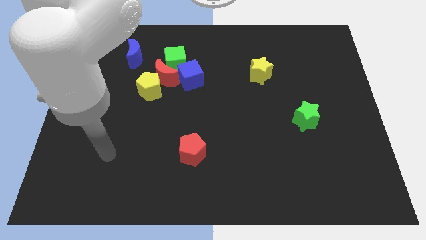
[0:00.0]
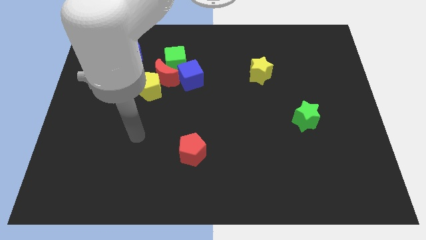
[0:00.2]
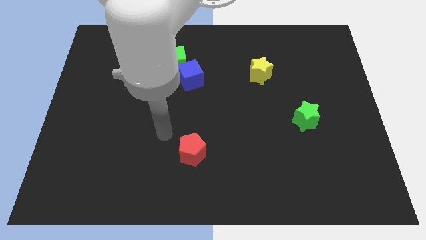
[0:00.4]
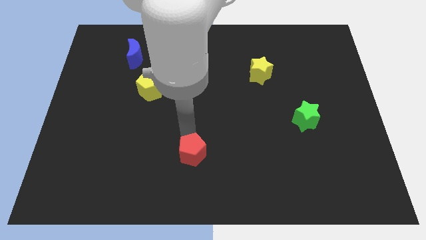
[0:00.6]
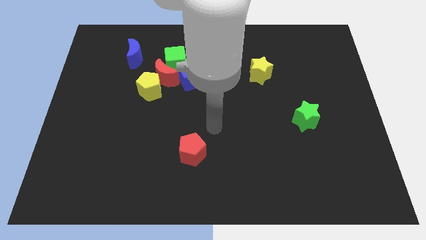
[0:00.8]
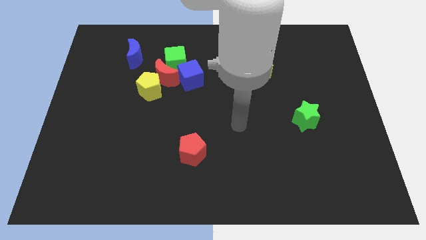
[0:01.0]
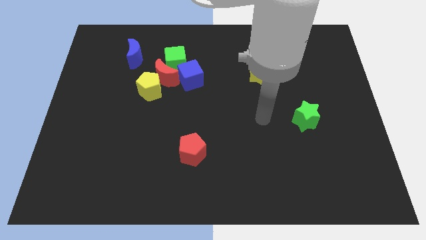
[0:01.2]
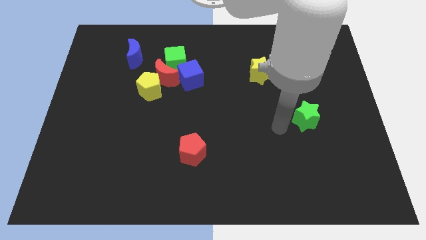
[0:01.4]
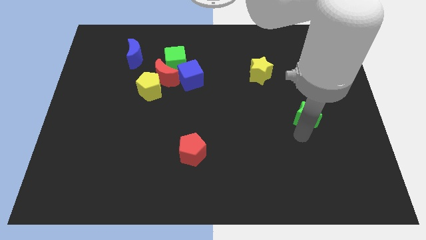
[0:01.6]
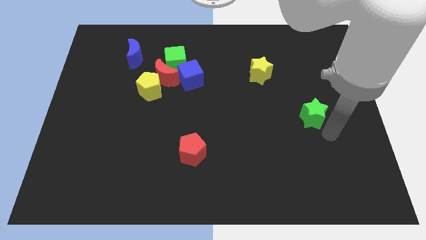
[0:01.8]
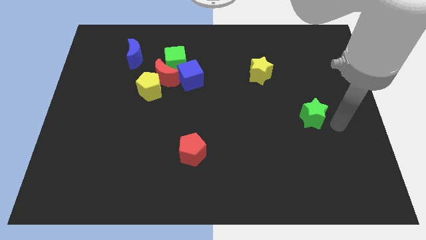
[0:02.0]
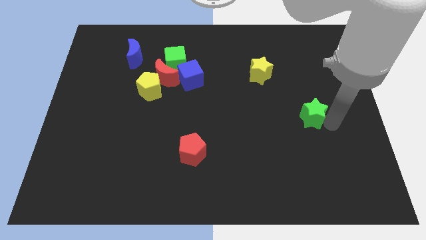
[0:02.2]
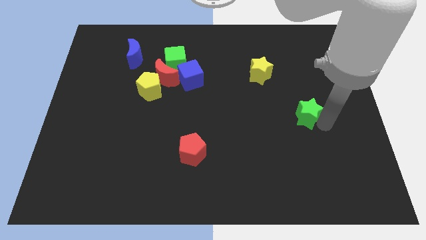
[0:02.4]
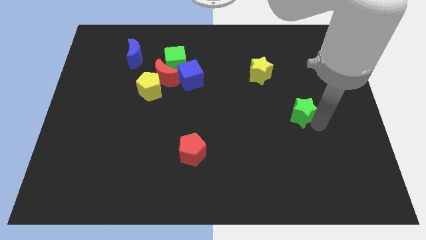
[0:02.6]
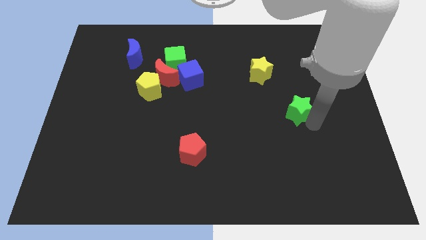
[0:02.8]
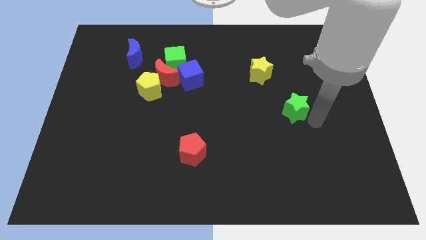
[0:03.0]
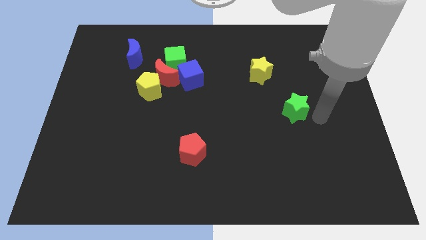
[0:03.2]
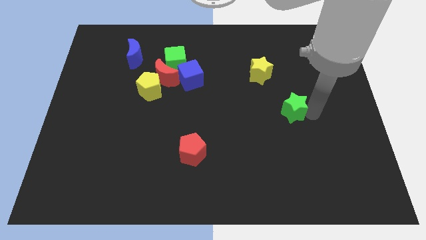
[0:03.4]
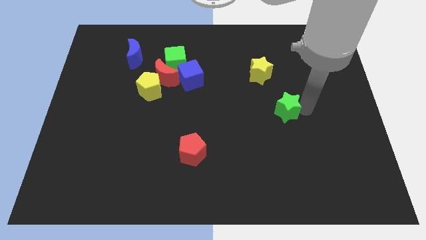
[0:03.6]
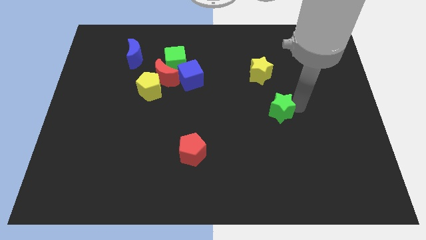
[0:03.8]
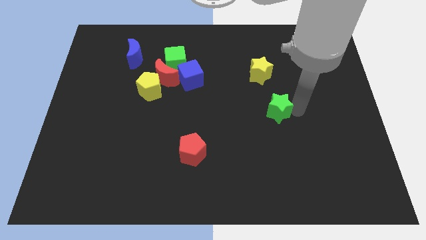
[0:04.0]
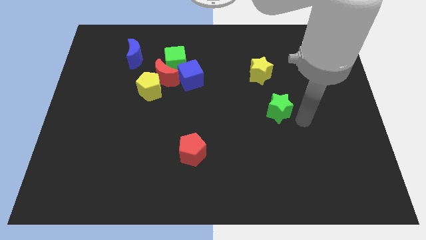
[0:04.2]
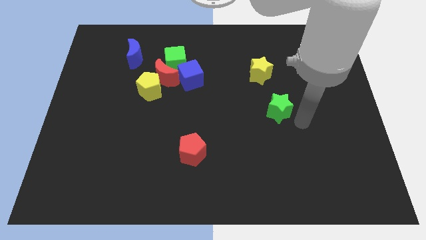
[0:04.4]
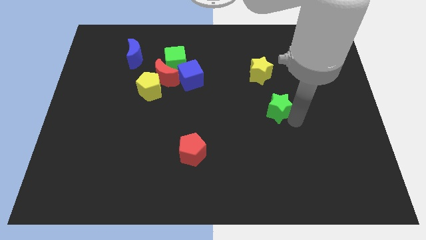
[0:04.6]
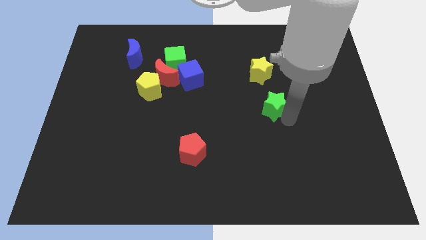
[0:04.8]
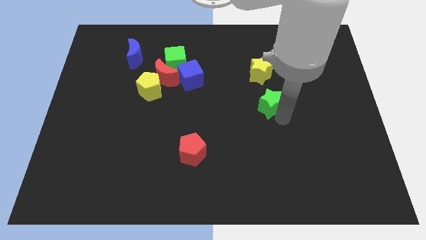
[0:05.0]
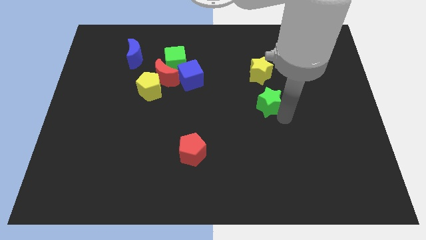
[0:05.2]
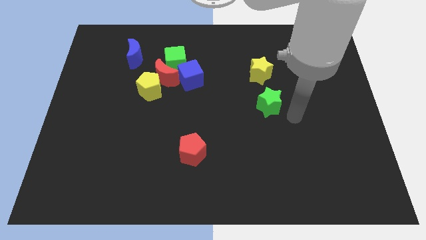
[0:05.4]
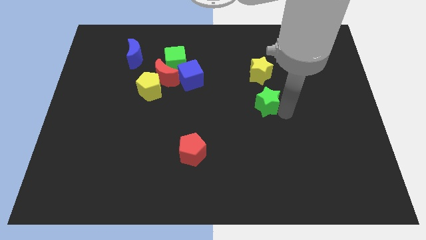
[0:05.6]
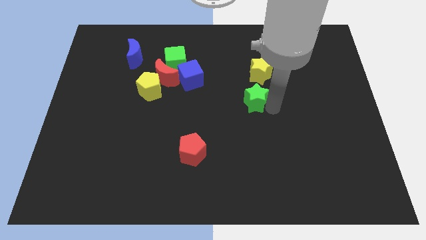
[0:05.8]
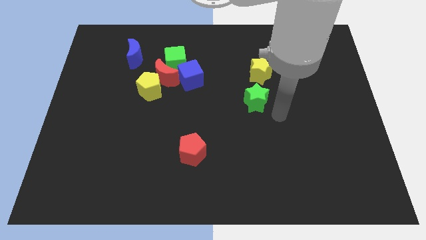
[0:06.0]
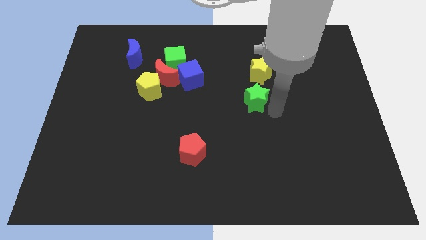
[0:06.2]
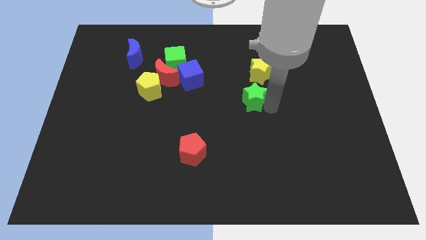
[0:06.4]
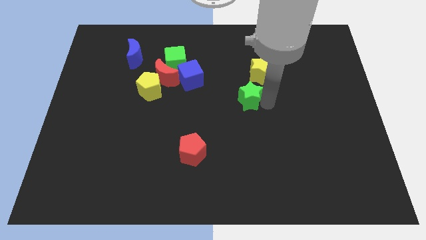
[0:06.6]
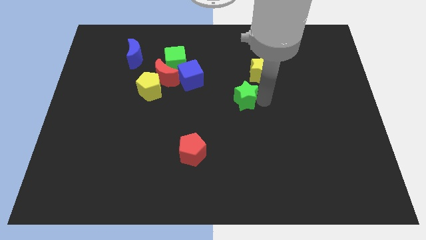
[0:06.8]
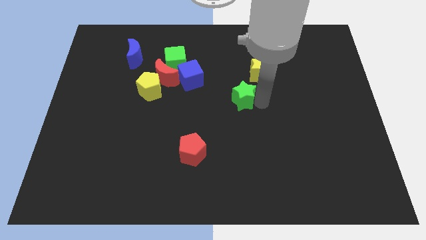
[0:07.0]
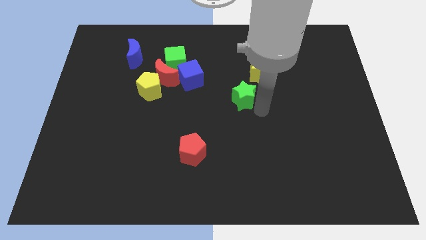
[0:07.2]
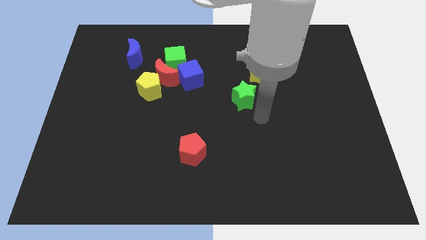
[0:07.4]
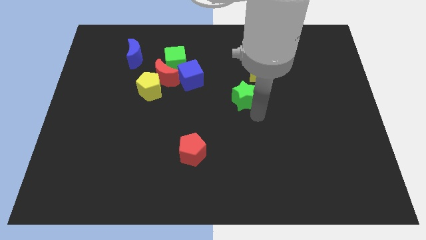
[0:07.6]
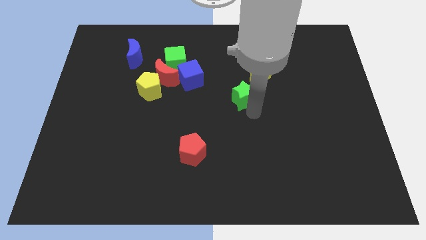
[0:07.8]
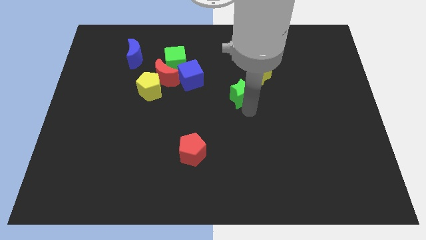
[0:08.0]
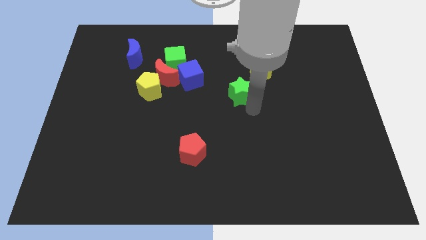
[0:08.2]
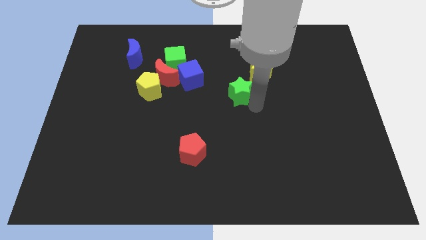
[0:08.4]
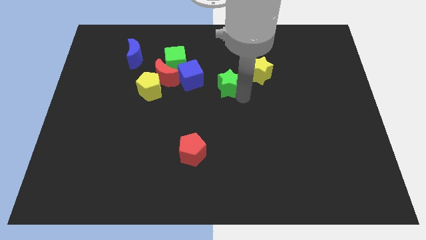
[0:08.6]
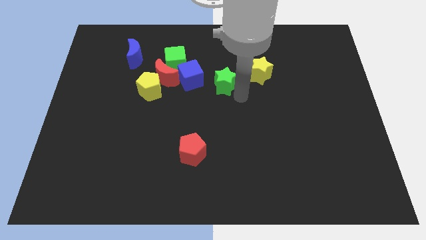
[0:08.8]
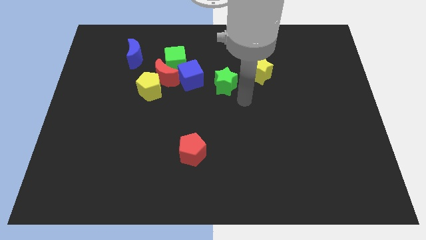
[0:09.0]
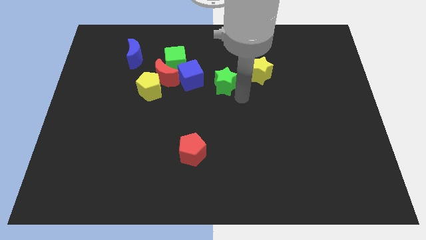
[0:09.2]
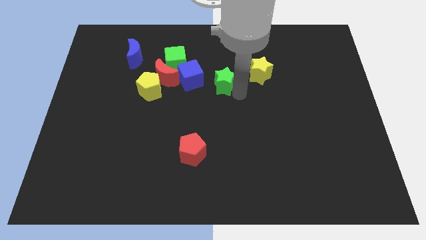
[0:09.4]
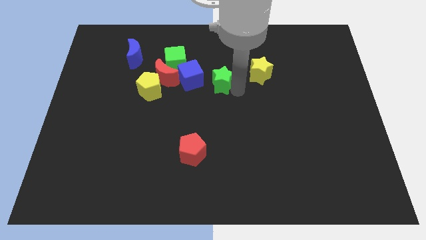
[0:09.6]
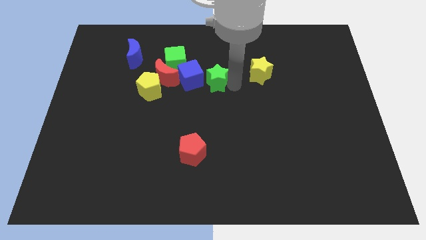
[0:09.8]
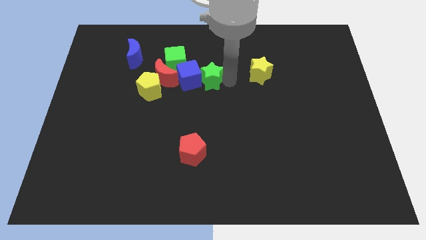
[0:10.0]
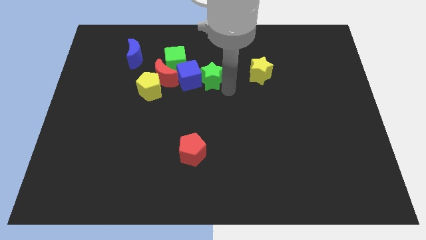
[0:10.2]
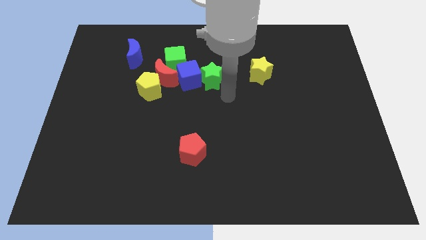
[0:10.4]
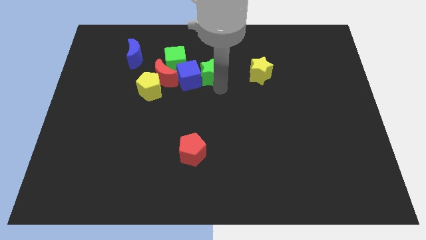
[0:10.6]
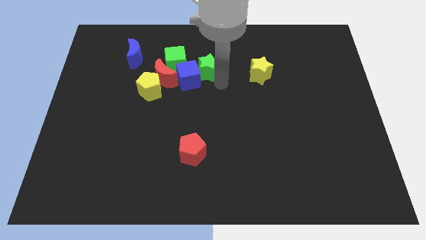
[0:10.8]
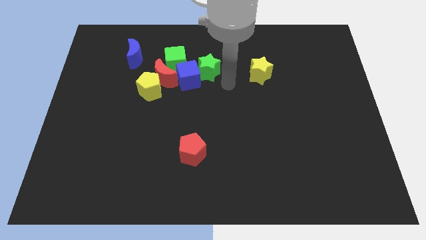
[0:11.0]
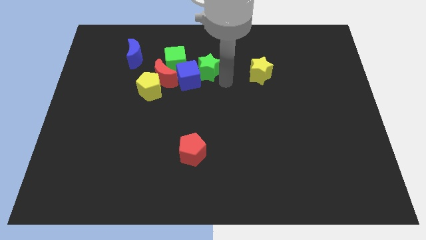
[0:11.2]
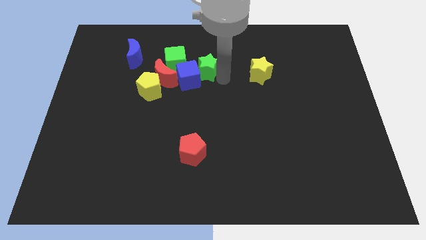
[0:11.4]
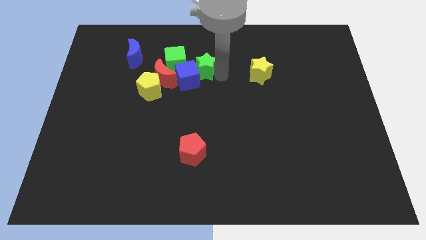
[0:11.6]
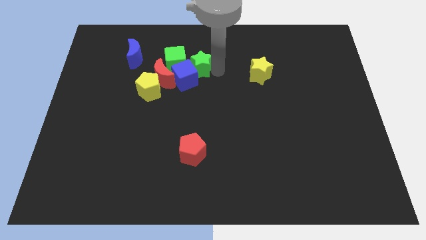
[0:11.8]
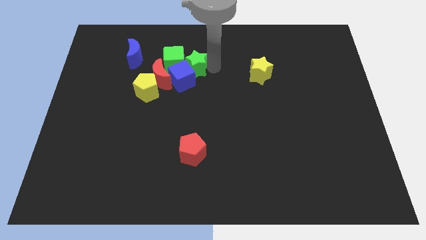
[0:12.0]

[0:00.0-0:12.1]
put the green star towards the green cube

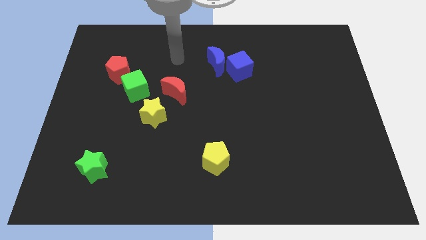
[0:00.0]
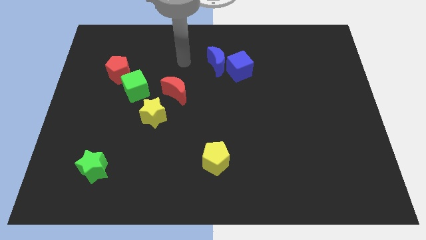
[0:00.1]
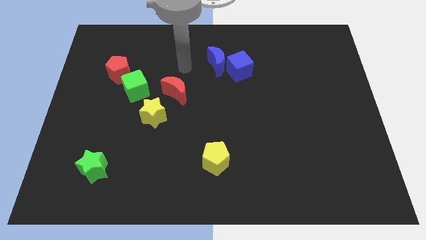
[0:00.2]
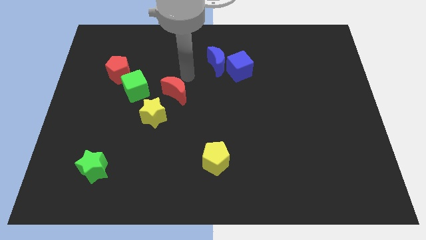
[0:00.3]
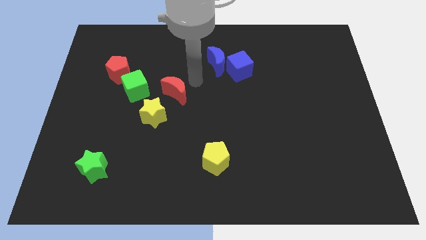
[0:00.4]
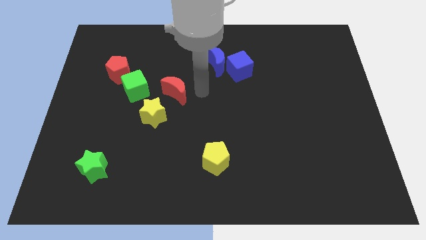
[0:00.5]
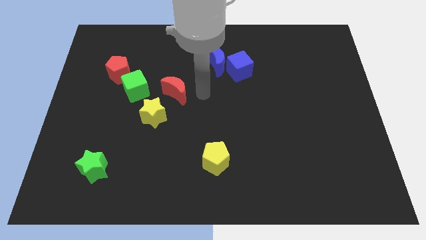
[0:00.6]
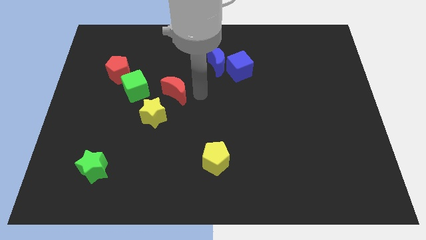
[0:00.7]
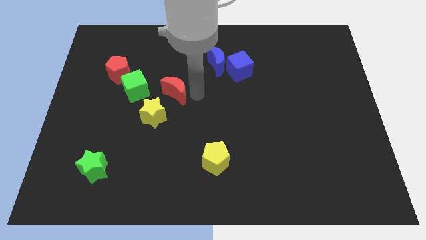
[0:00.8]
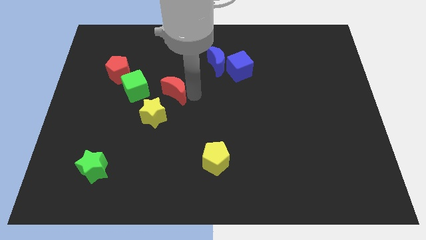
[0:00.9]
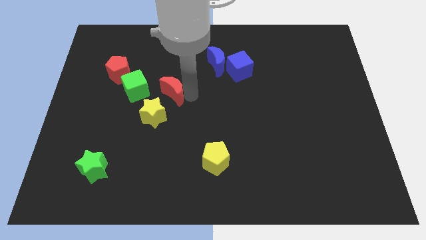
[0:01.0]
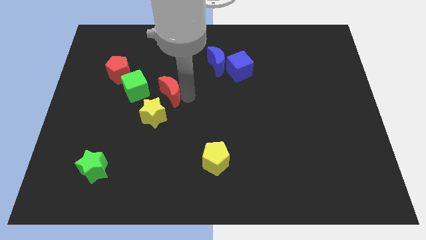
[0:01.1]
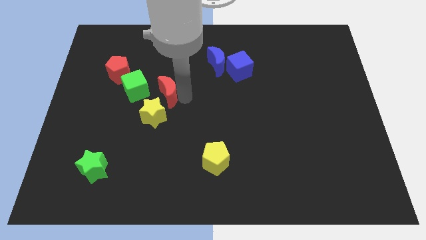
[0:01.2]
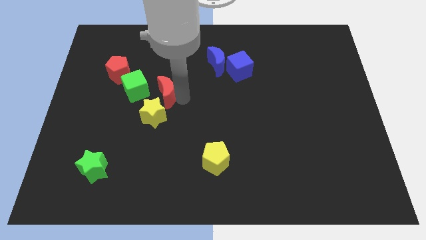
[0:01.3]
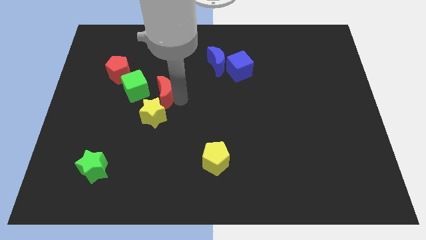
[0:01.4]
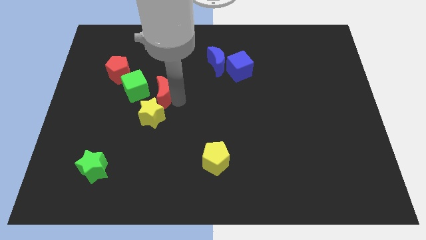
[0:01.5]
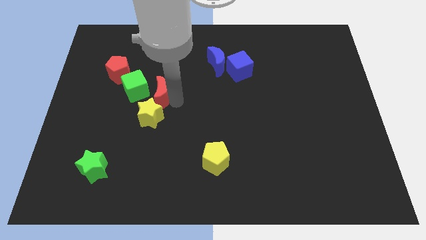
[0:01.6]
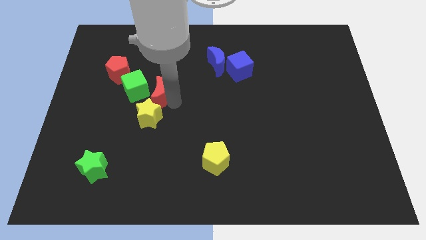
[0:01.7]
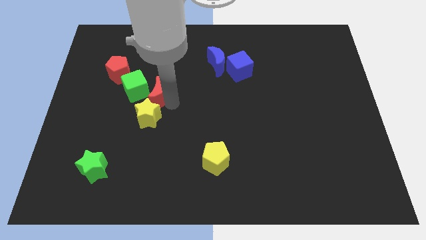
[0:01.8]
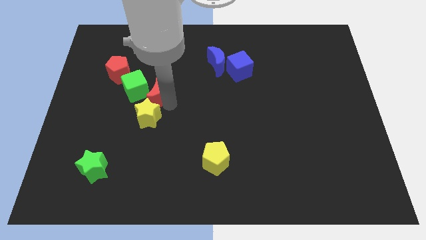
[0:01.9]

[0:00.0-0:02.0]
slide the red moon close to the green cube
